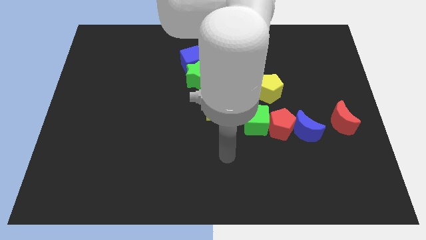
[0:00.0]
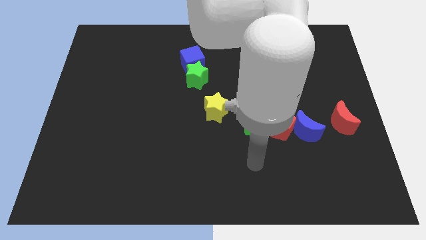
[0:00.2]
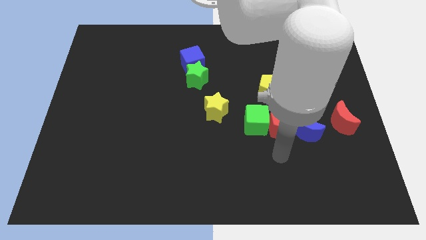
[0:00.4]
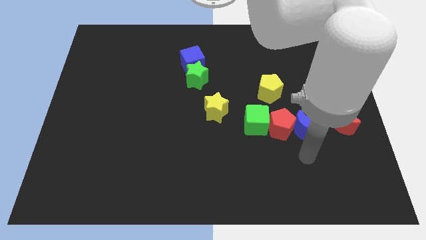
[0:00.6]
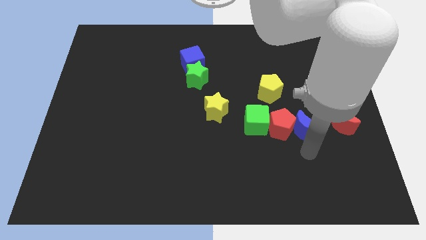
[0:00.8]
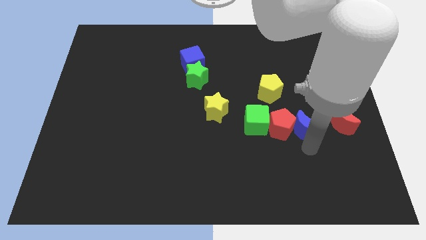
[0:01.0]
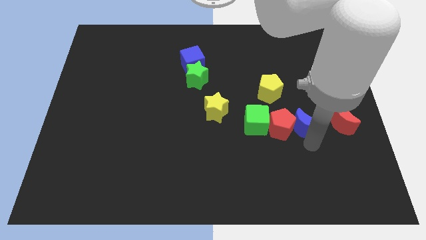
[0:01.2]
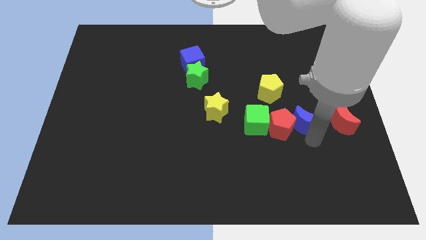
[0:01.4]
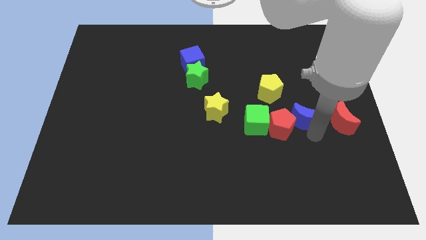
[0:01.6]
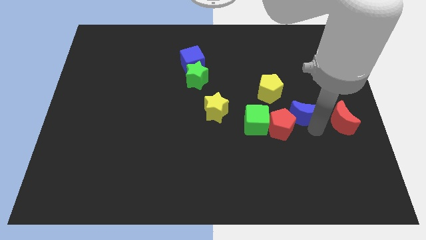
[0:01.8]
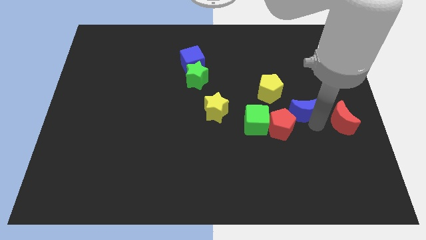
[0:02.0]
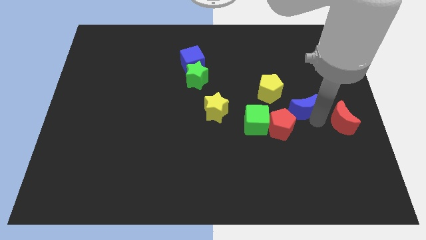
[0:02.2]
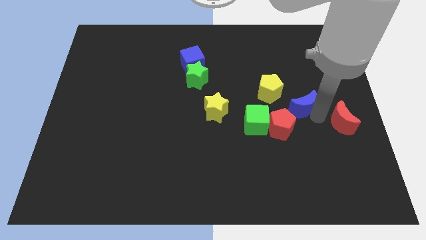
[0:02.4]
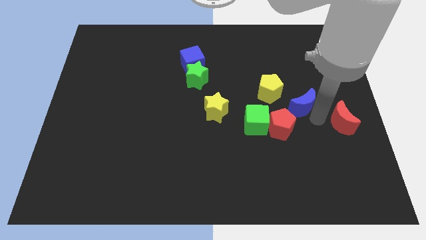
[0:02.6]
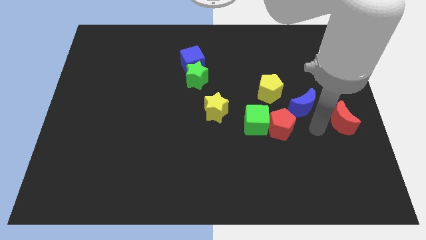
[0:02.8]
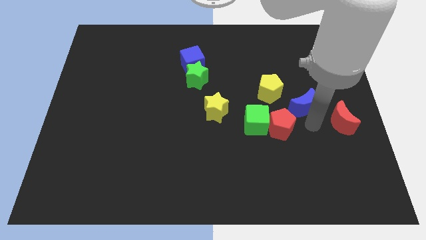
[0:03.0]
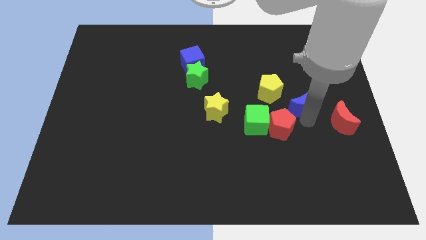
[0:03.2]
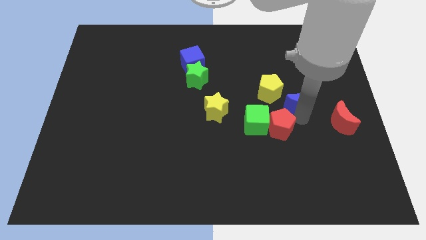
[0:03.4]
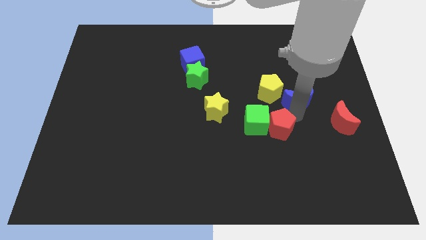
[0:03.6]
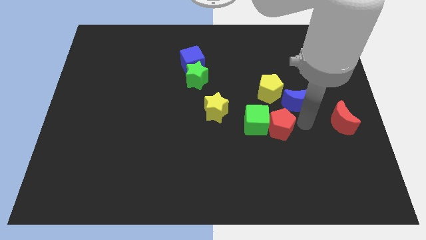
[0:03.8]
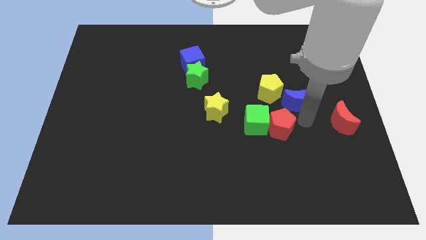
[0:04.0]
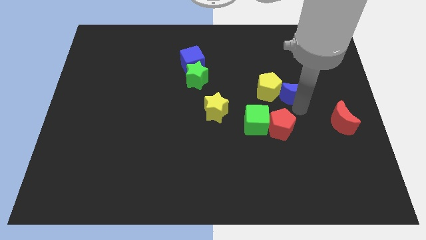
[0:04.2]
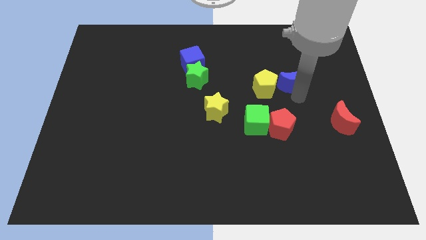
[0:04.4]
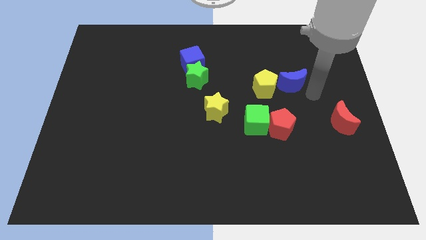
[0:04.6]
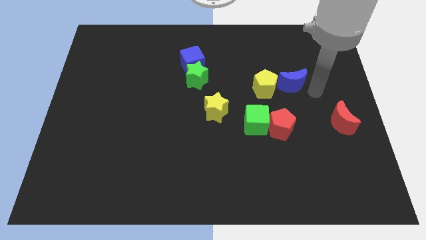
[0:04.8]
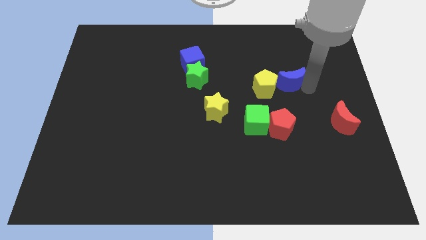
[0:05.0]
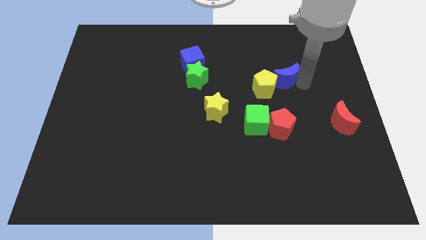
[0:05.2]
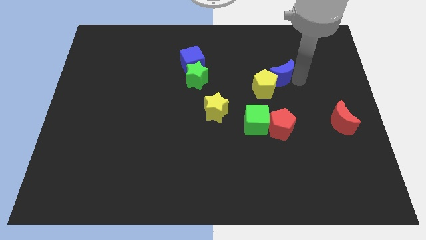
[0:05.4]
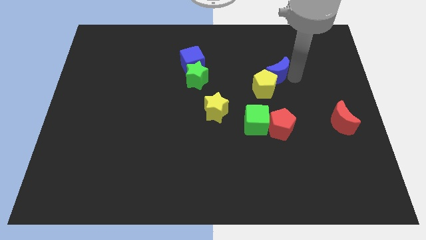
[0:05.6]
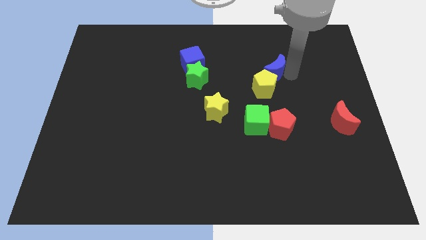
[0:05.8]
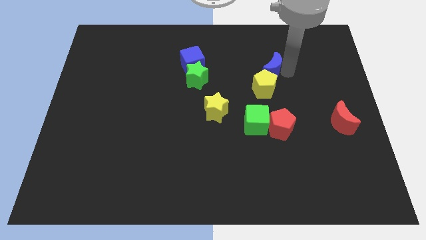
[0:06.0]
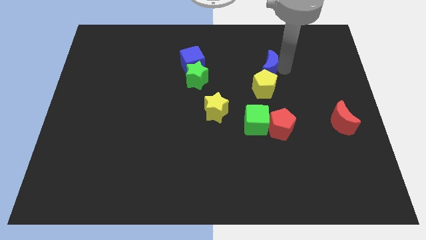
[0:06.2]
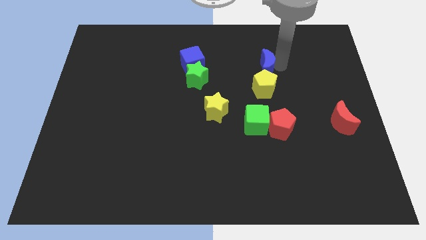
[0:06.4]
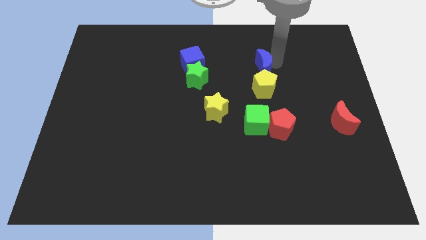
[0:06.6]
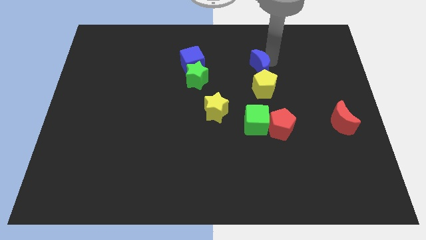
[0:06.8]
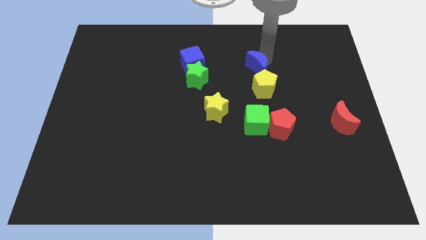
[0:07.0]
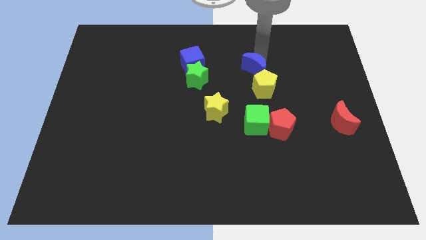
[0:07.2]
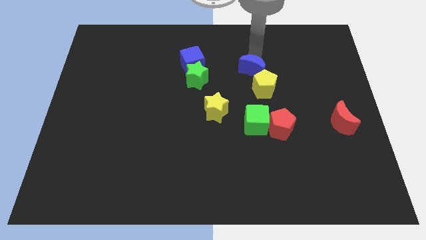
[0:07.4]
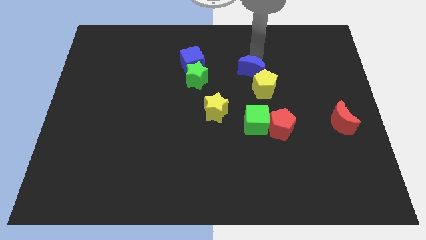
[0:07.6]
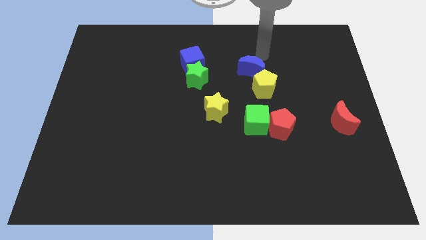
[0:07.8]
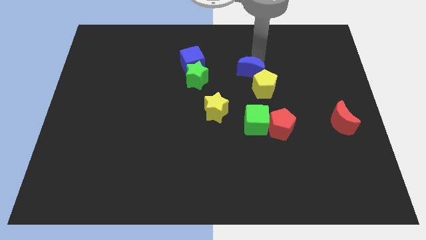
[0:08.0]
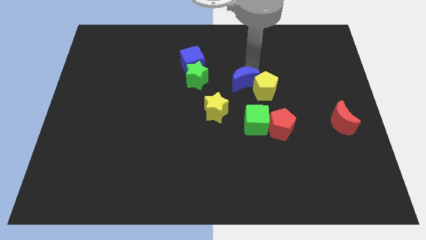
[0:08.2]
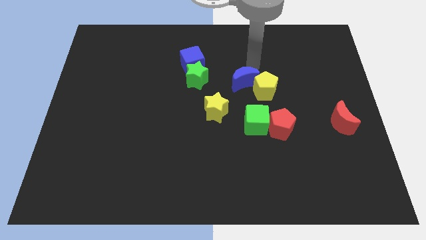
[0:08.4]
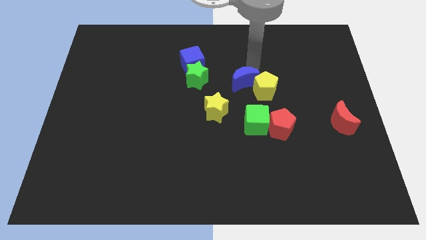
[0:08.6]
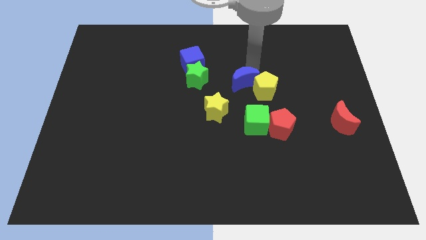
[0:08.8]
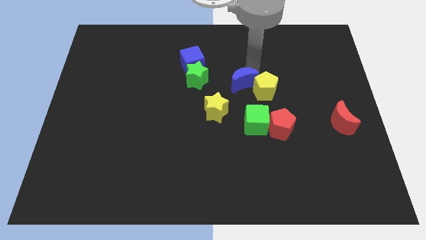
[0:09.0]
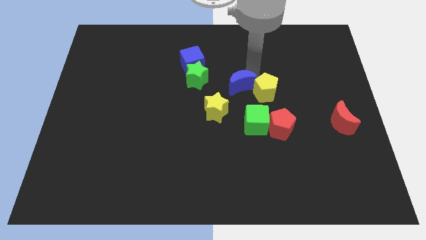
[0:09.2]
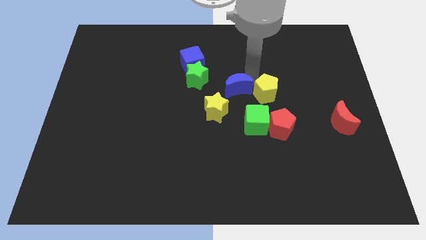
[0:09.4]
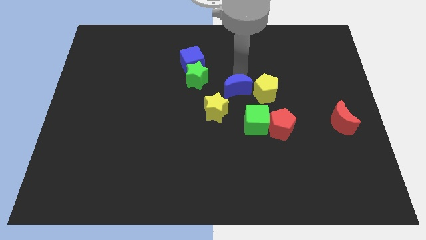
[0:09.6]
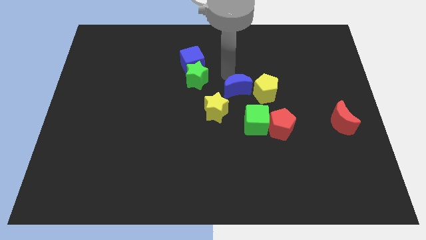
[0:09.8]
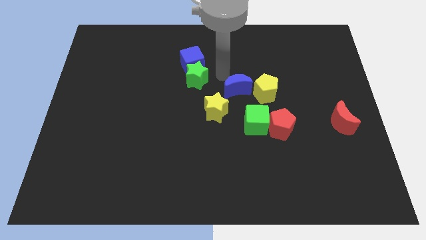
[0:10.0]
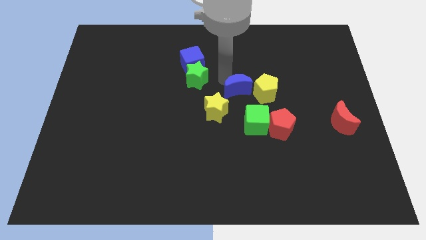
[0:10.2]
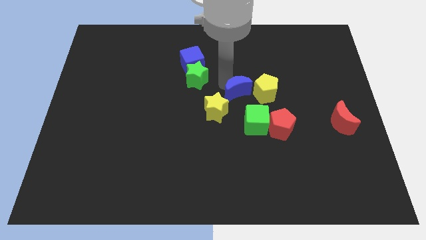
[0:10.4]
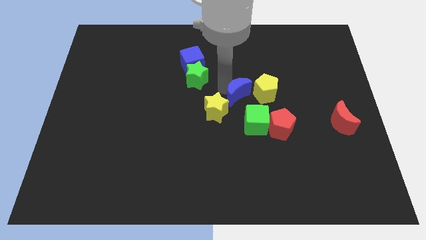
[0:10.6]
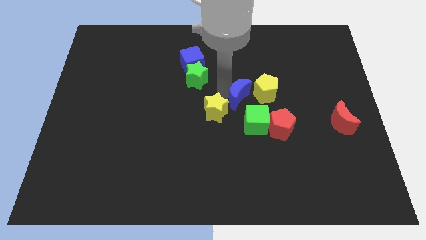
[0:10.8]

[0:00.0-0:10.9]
move the blue moon to the top left of the red pentagon

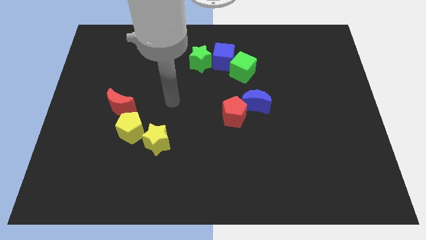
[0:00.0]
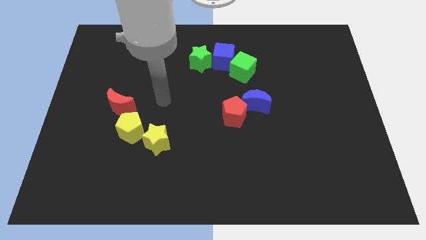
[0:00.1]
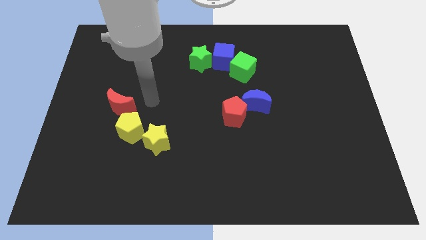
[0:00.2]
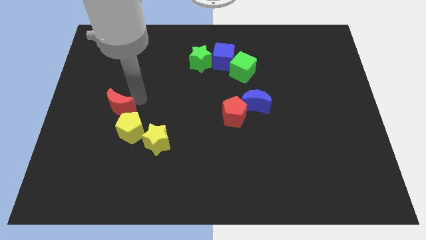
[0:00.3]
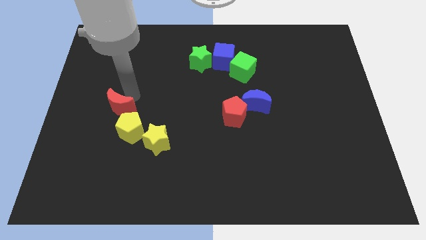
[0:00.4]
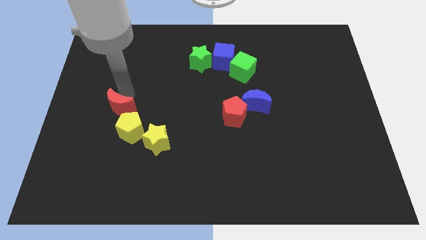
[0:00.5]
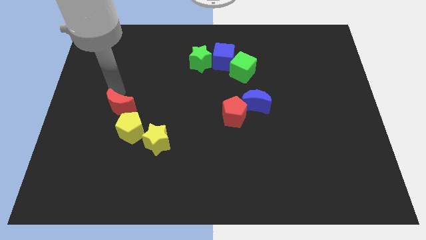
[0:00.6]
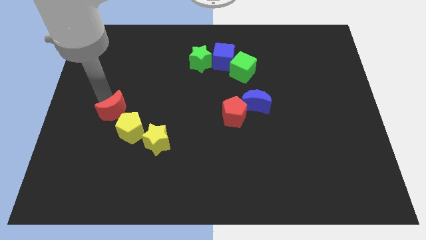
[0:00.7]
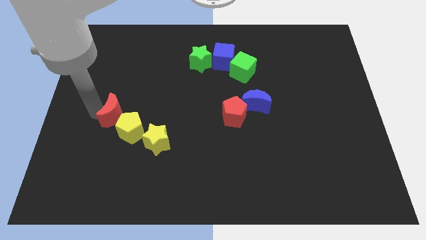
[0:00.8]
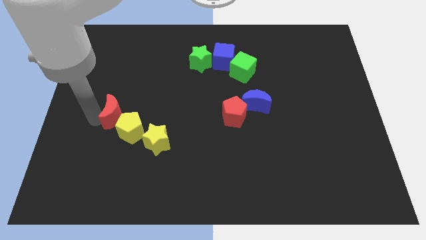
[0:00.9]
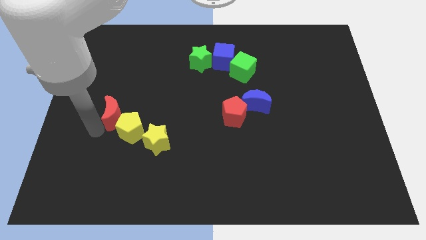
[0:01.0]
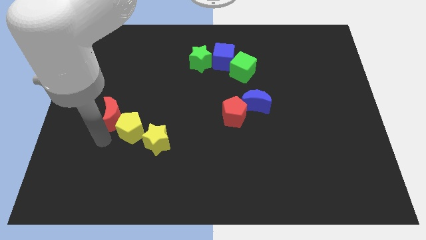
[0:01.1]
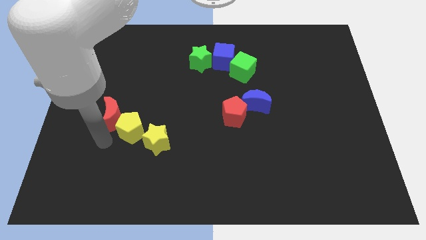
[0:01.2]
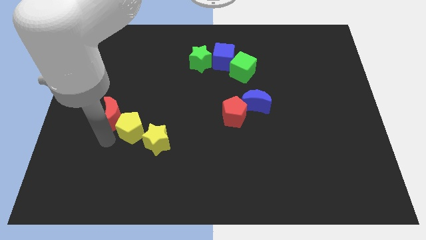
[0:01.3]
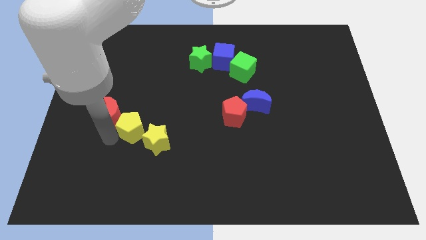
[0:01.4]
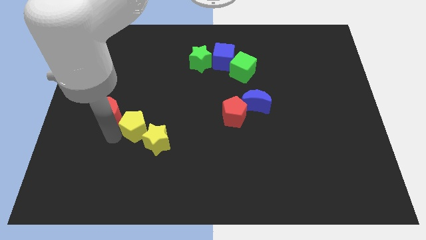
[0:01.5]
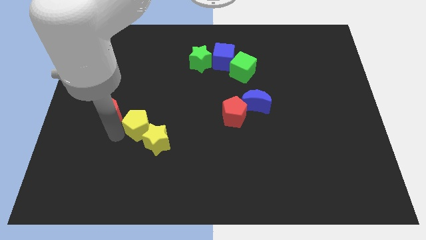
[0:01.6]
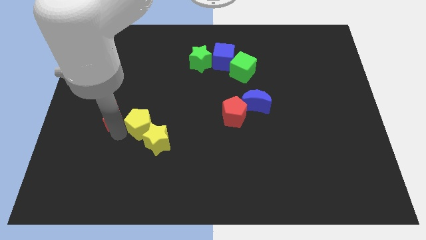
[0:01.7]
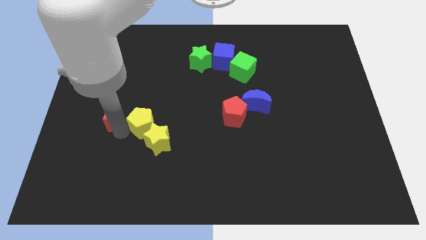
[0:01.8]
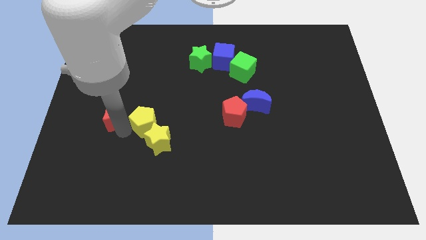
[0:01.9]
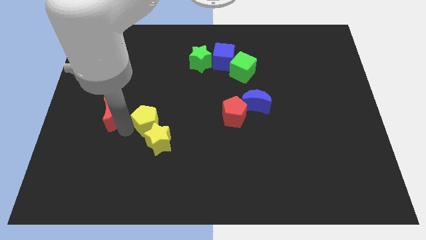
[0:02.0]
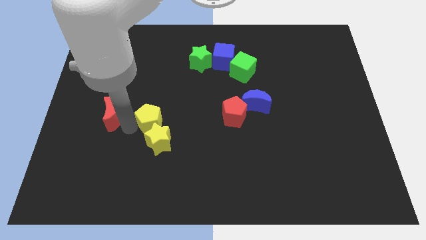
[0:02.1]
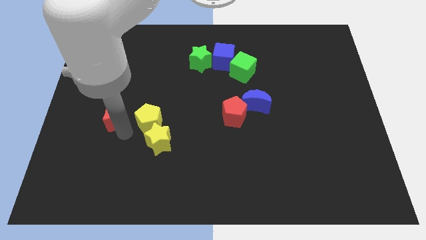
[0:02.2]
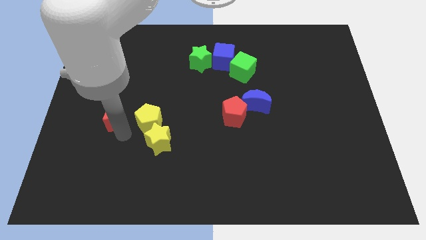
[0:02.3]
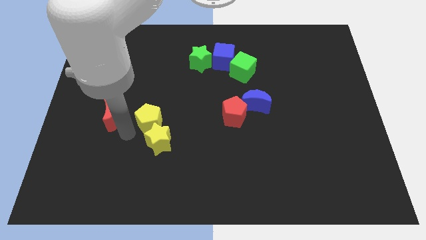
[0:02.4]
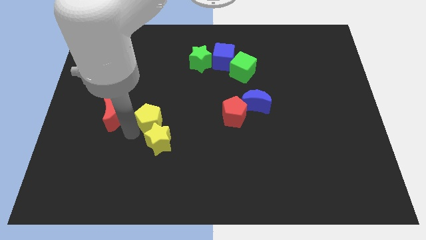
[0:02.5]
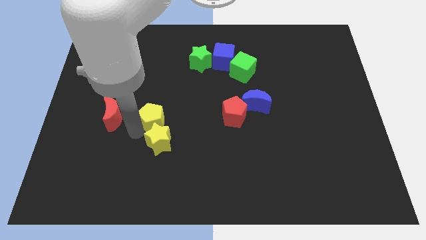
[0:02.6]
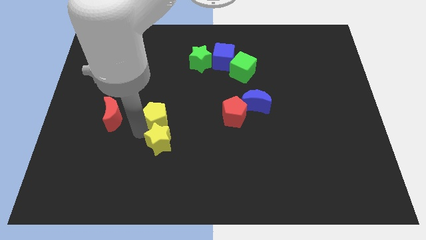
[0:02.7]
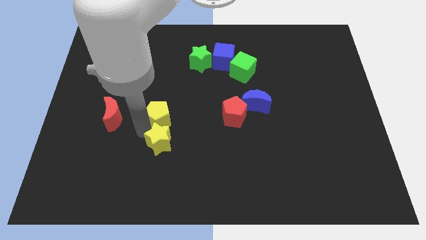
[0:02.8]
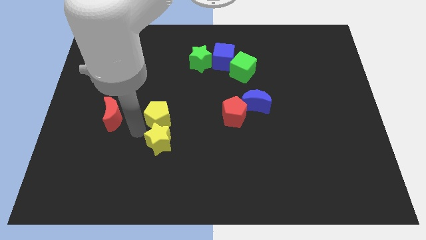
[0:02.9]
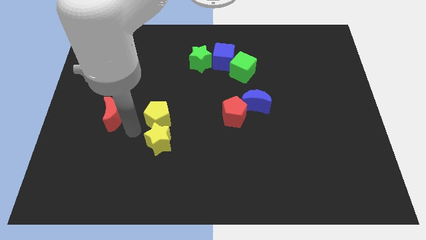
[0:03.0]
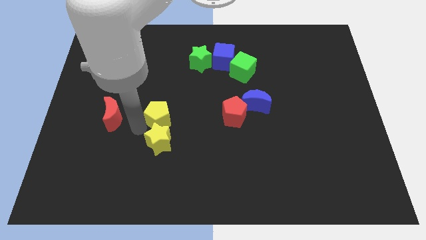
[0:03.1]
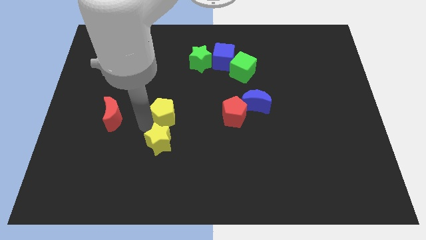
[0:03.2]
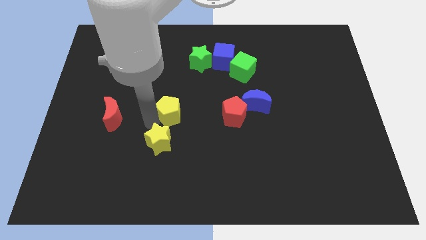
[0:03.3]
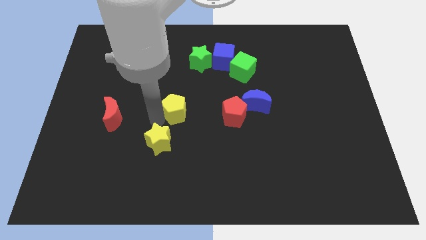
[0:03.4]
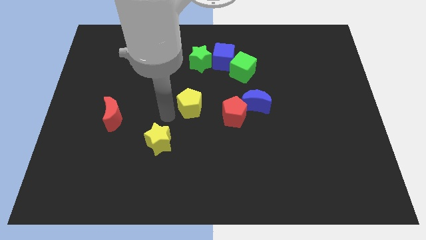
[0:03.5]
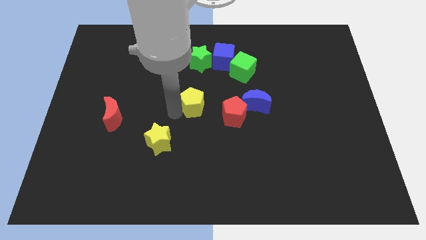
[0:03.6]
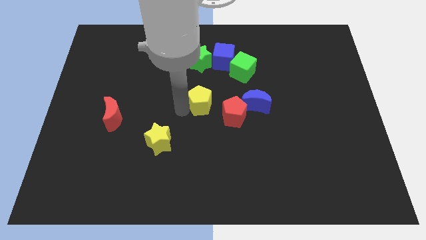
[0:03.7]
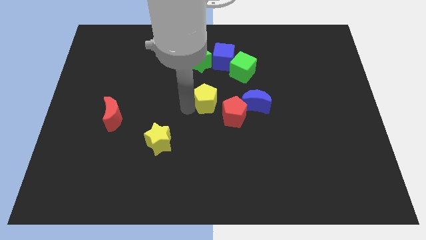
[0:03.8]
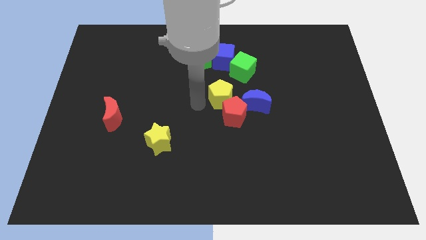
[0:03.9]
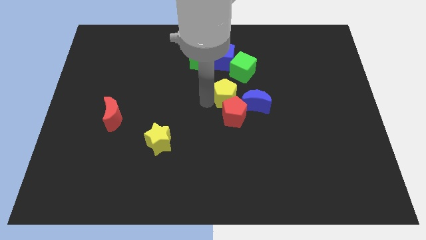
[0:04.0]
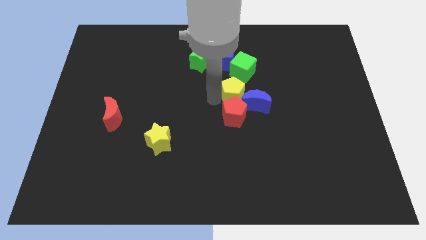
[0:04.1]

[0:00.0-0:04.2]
slide the yellow pentagon diagonally up and to the right of the red pentagon
